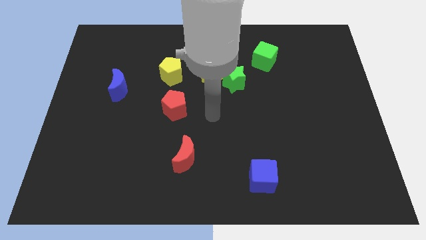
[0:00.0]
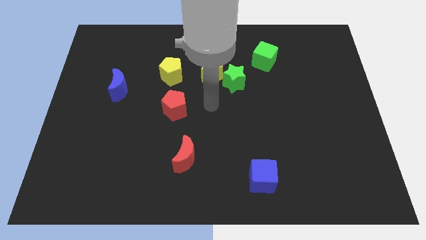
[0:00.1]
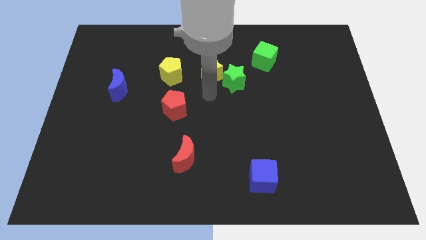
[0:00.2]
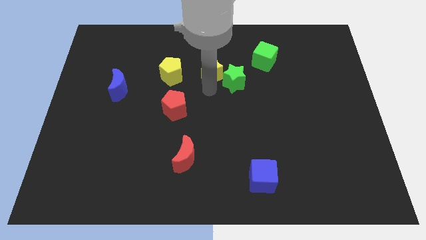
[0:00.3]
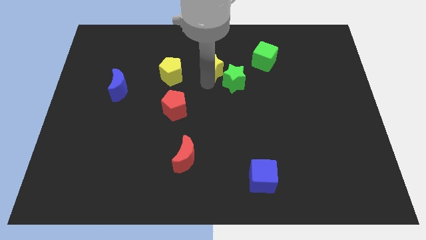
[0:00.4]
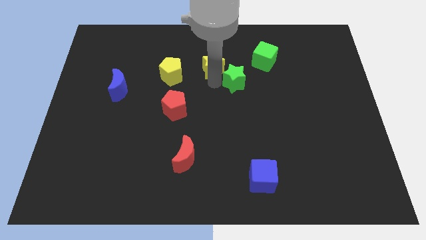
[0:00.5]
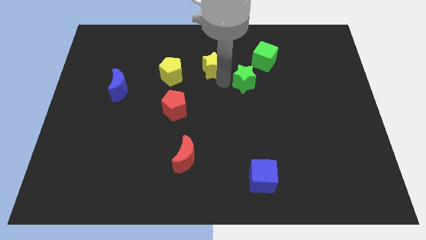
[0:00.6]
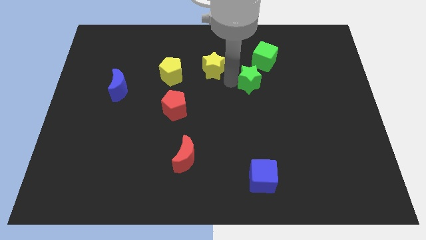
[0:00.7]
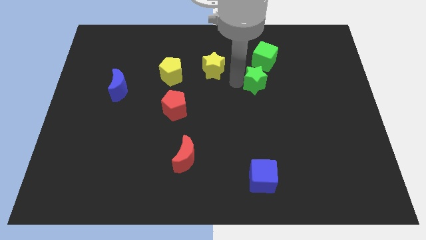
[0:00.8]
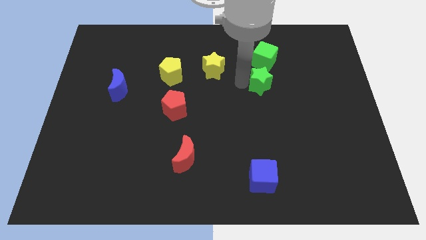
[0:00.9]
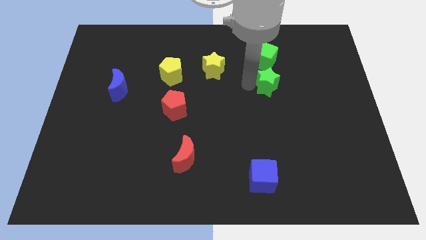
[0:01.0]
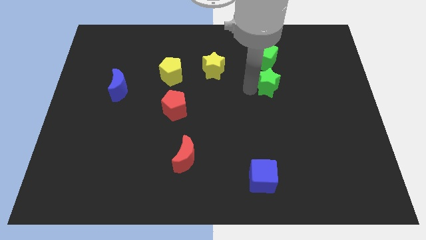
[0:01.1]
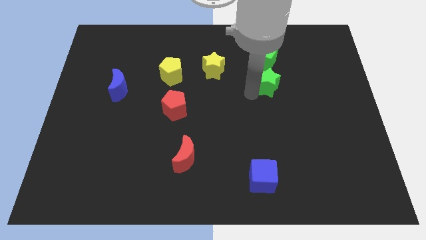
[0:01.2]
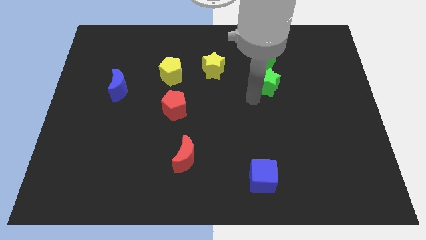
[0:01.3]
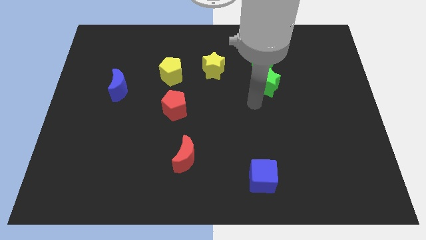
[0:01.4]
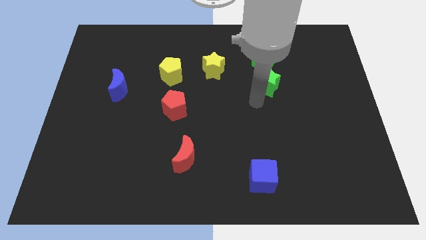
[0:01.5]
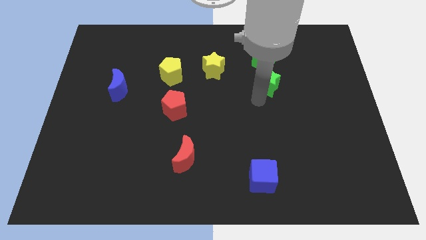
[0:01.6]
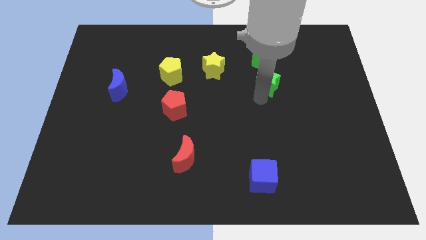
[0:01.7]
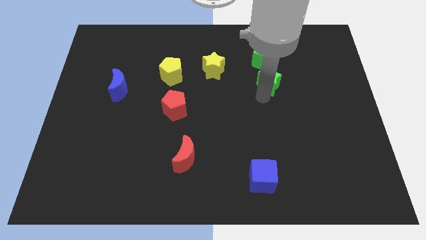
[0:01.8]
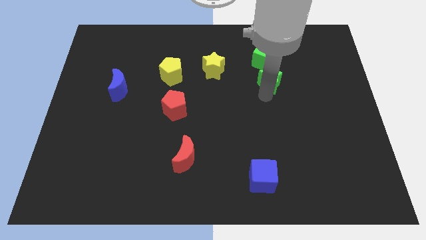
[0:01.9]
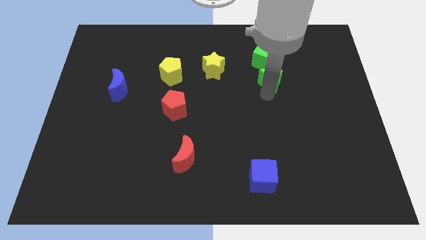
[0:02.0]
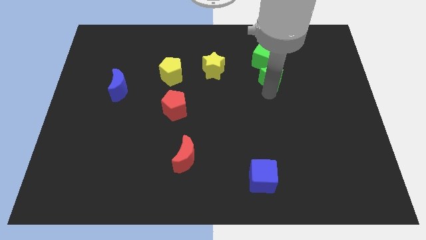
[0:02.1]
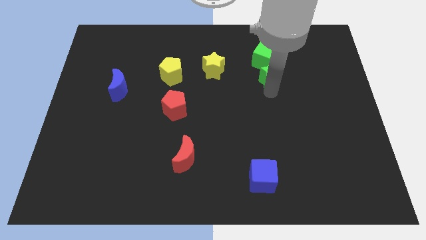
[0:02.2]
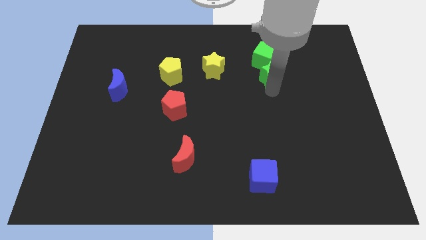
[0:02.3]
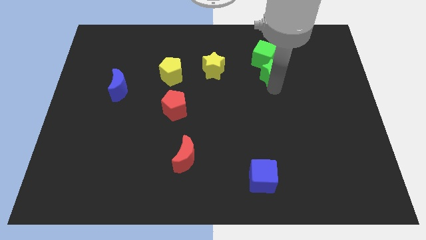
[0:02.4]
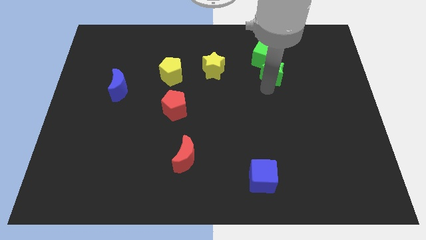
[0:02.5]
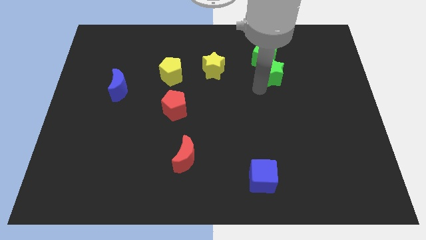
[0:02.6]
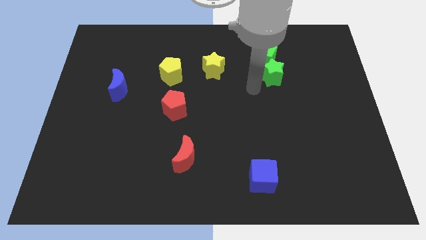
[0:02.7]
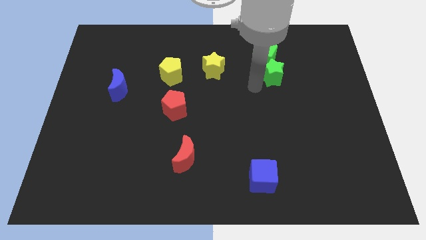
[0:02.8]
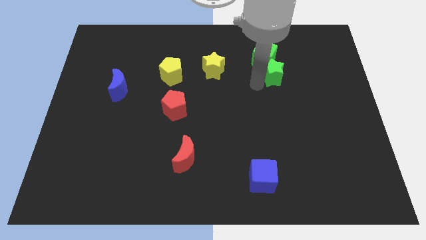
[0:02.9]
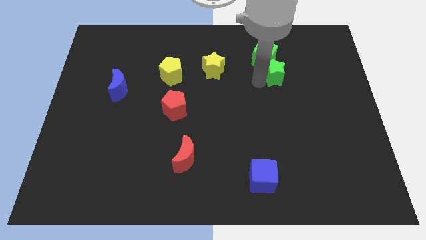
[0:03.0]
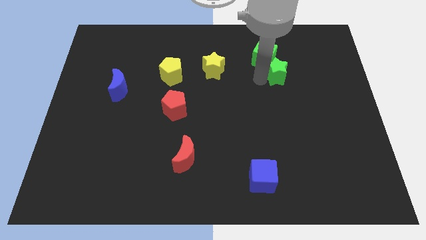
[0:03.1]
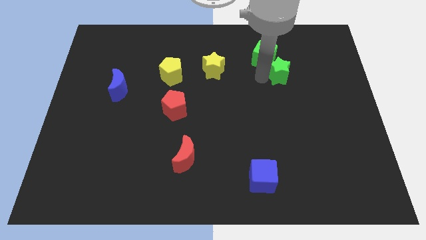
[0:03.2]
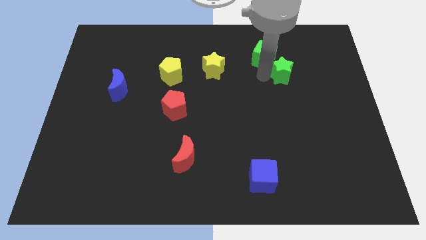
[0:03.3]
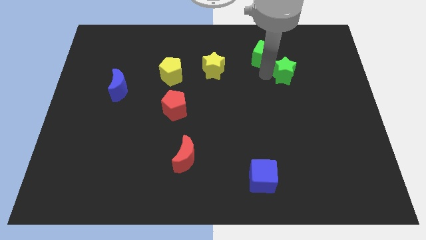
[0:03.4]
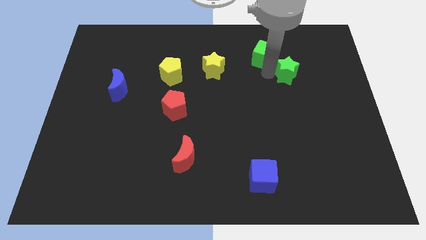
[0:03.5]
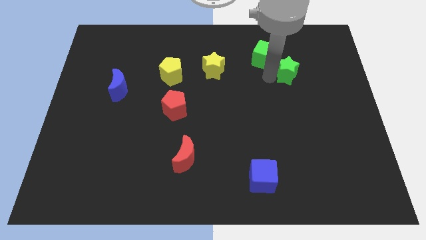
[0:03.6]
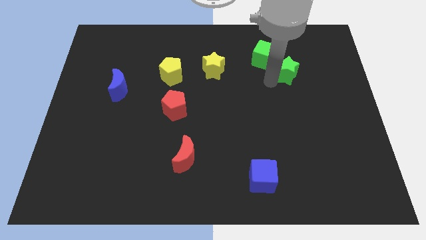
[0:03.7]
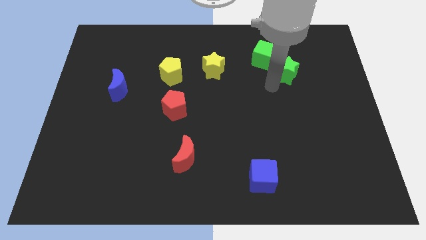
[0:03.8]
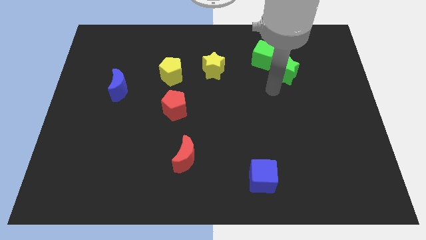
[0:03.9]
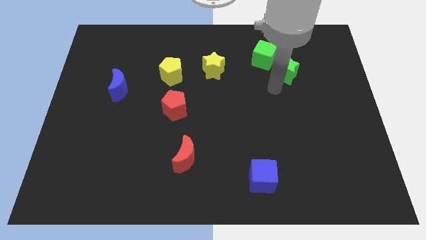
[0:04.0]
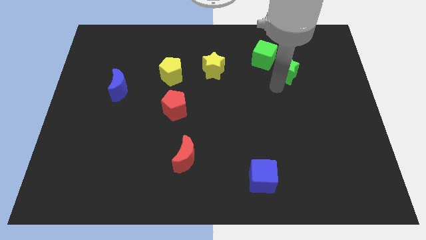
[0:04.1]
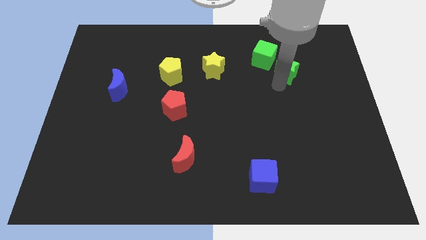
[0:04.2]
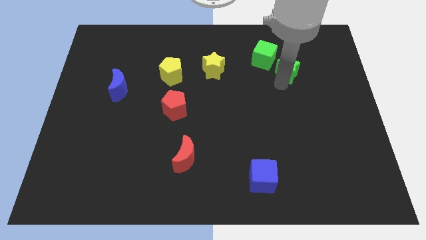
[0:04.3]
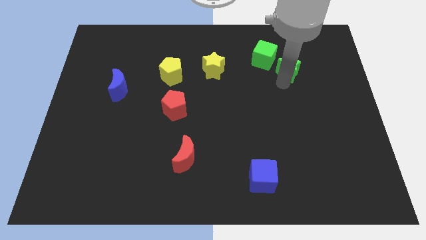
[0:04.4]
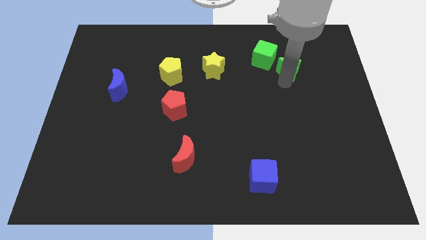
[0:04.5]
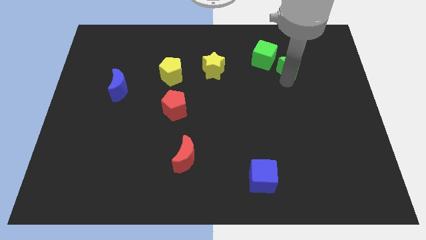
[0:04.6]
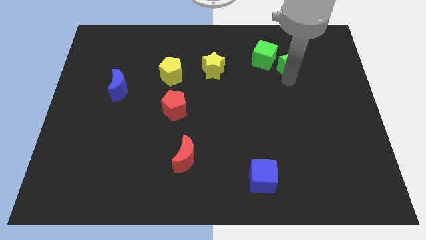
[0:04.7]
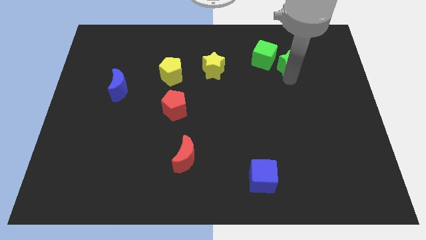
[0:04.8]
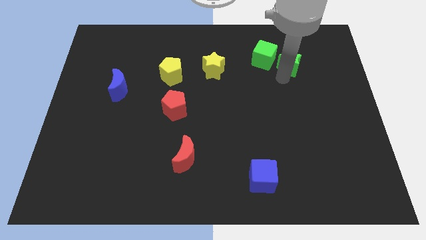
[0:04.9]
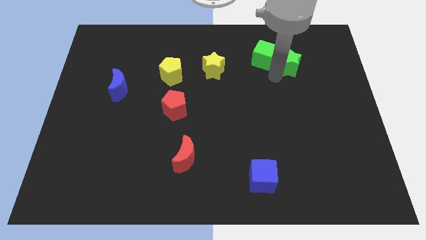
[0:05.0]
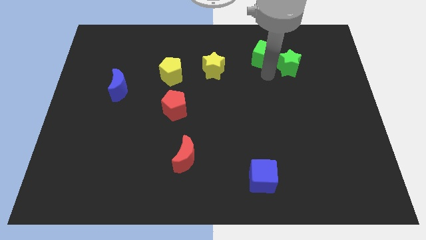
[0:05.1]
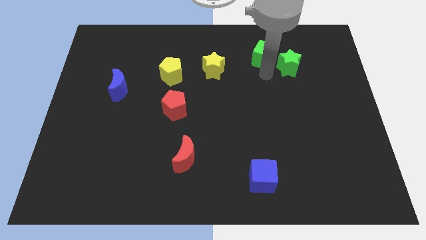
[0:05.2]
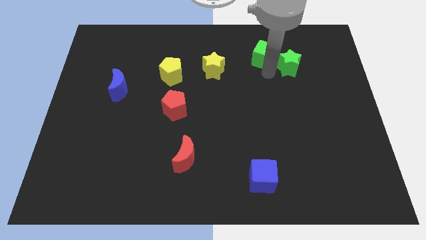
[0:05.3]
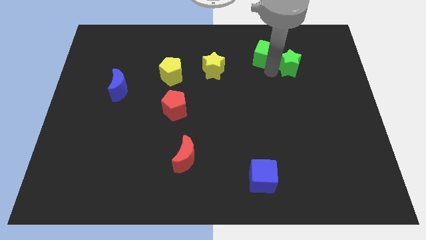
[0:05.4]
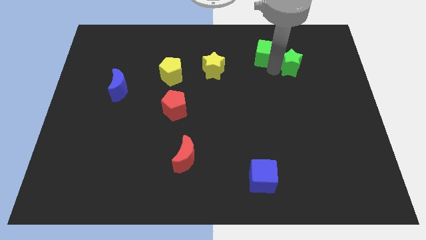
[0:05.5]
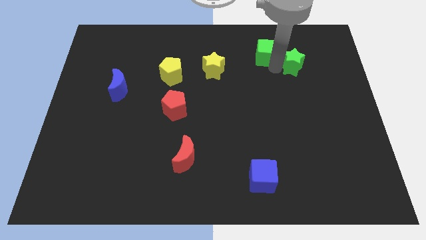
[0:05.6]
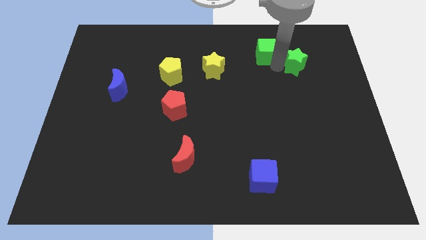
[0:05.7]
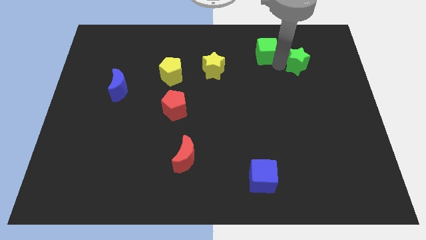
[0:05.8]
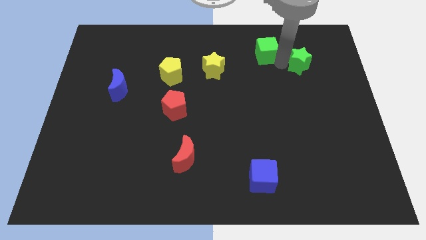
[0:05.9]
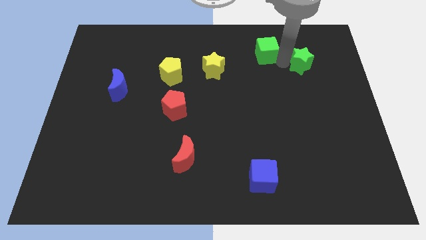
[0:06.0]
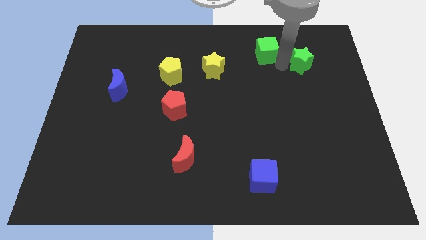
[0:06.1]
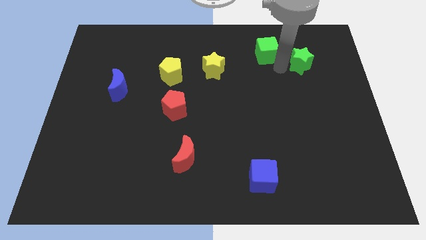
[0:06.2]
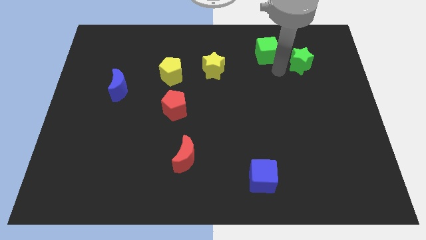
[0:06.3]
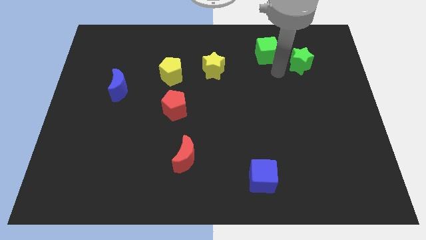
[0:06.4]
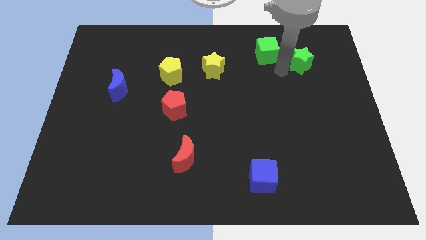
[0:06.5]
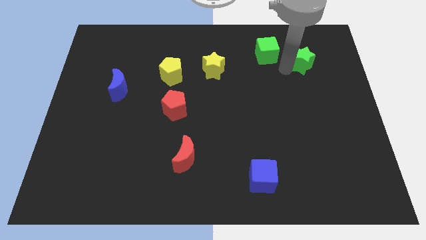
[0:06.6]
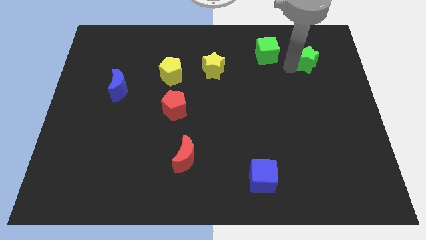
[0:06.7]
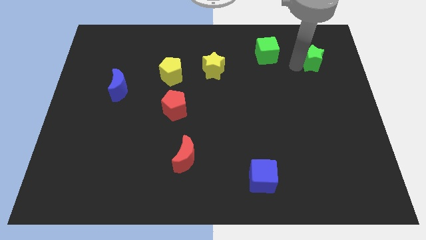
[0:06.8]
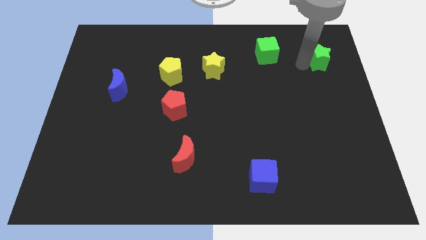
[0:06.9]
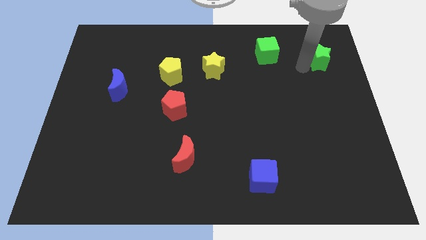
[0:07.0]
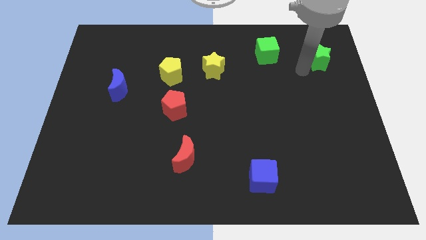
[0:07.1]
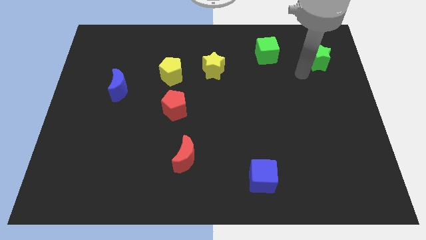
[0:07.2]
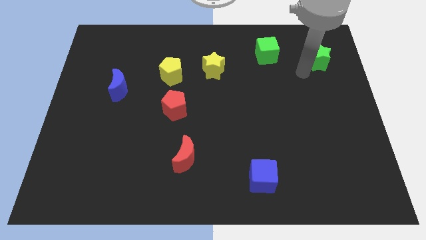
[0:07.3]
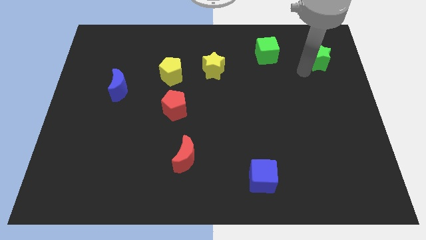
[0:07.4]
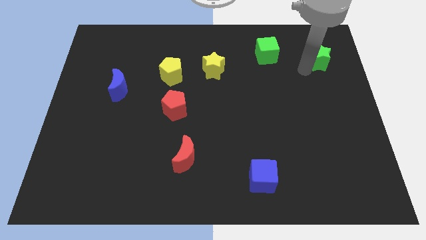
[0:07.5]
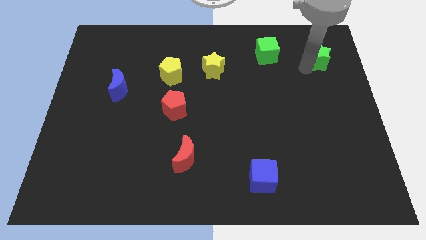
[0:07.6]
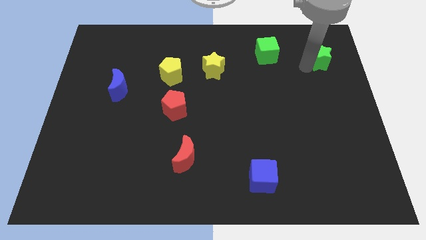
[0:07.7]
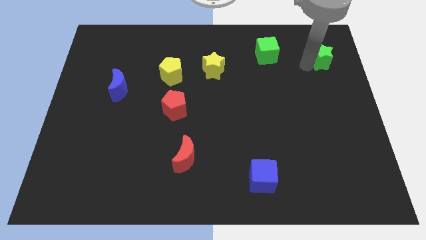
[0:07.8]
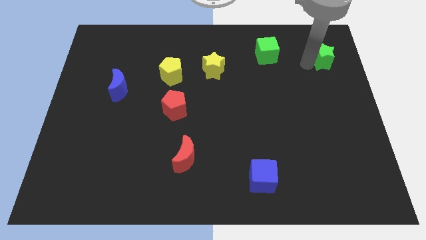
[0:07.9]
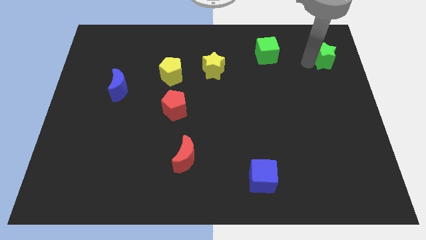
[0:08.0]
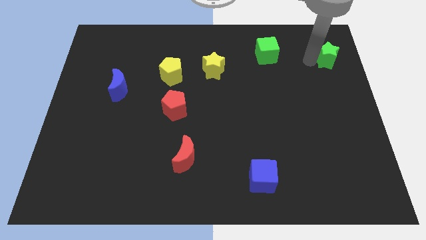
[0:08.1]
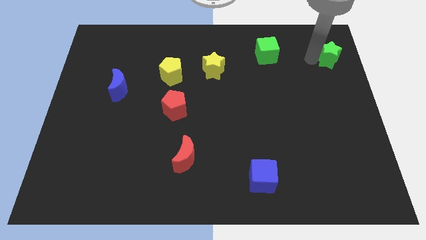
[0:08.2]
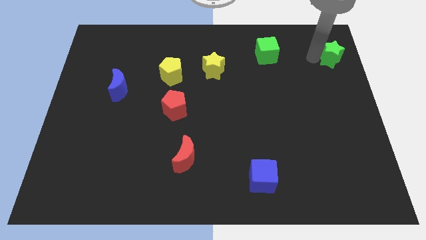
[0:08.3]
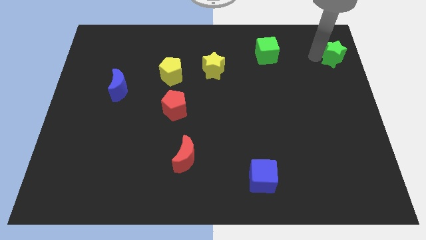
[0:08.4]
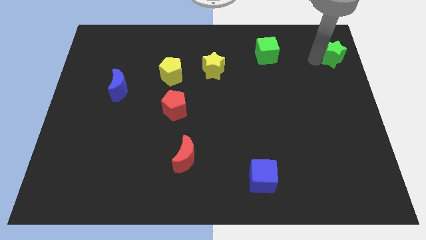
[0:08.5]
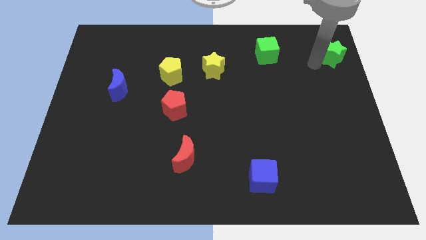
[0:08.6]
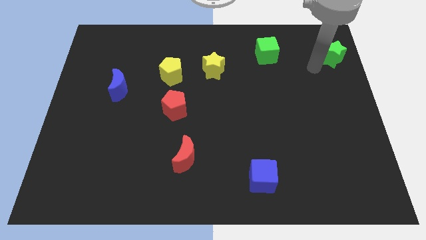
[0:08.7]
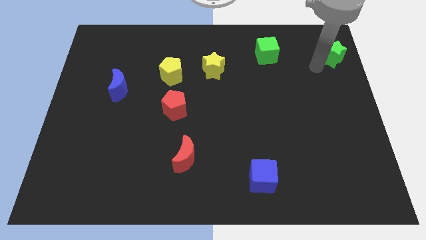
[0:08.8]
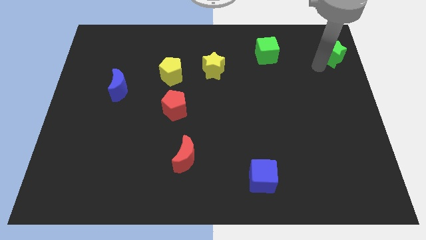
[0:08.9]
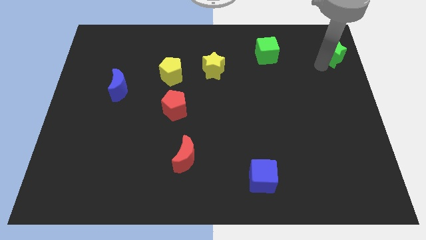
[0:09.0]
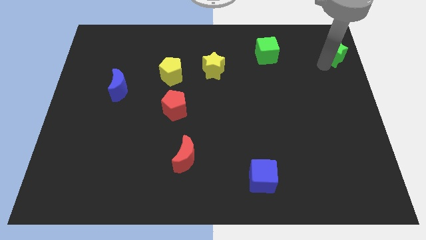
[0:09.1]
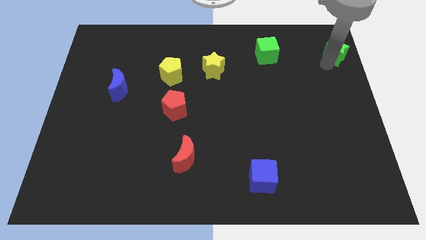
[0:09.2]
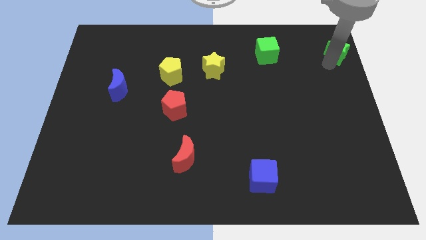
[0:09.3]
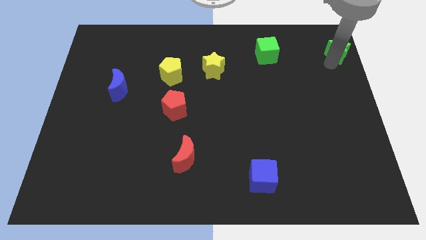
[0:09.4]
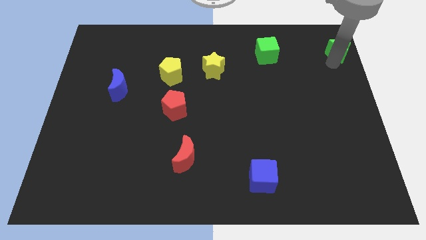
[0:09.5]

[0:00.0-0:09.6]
move the green star to the upper right corner
